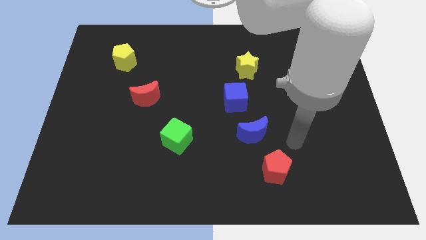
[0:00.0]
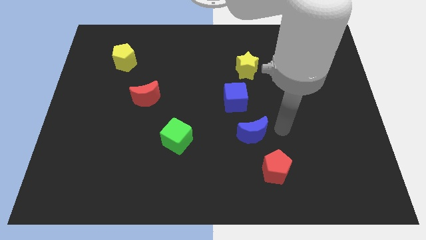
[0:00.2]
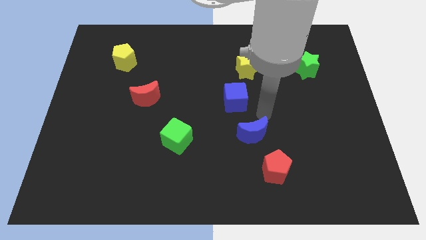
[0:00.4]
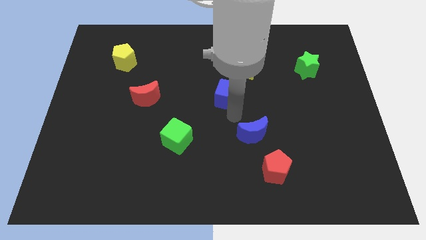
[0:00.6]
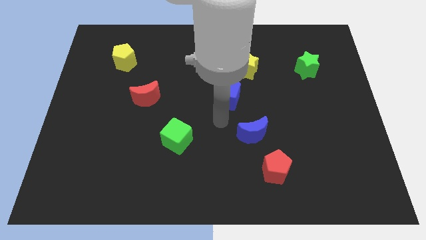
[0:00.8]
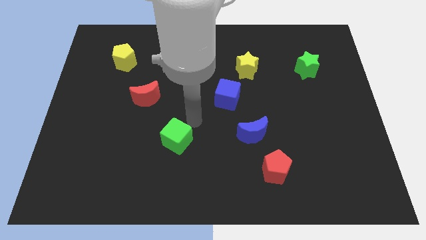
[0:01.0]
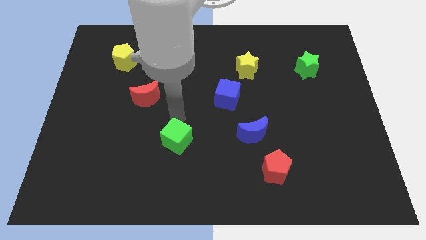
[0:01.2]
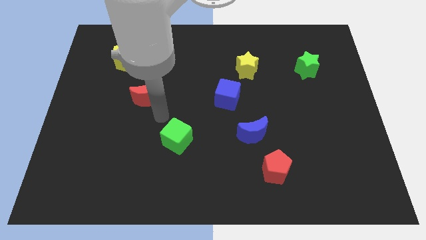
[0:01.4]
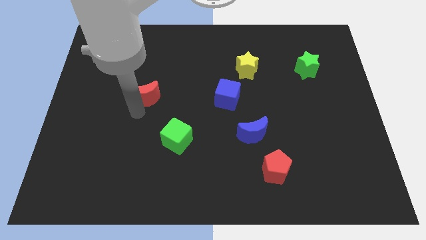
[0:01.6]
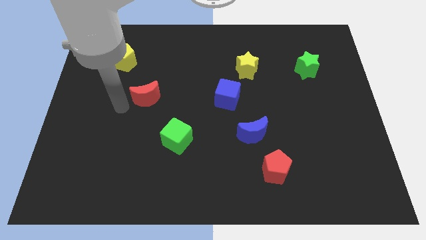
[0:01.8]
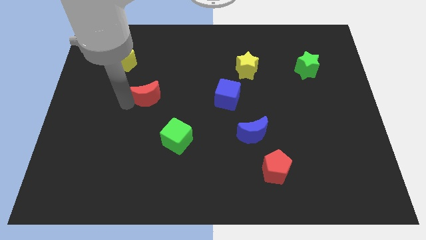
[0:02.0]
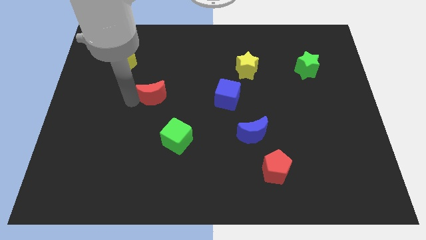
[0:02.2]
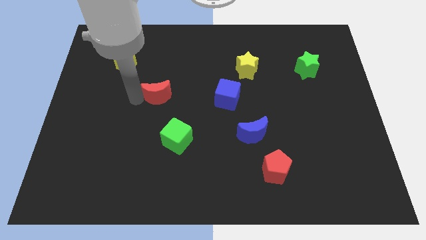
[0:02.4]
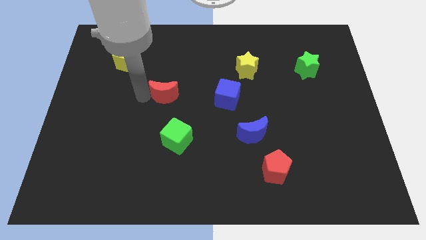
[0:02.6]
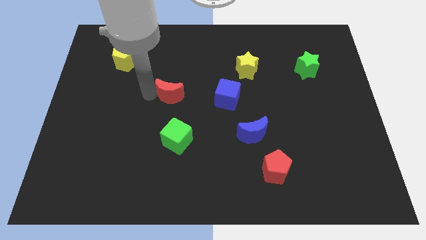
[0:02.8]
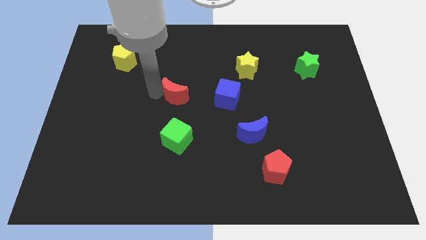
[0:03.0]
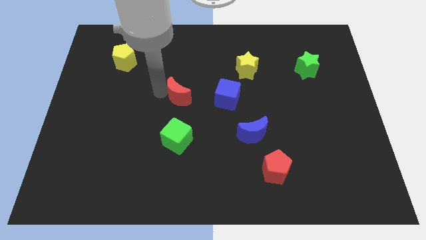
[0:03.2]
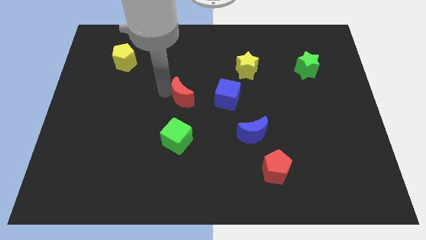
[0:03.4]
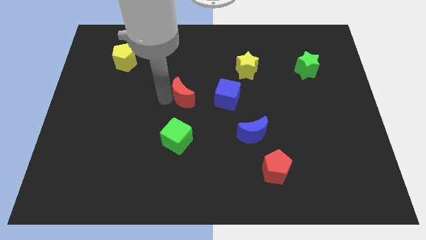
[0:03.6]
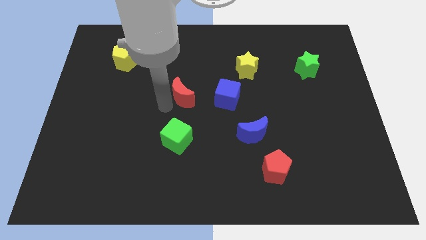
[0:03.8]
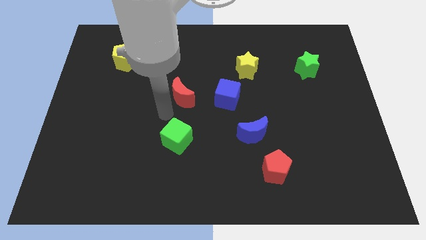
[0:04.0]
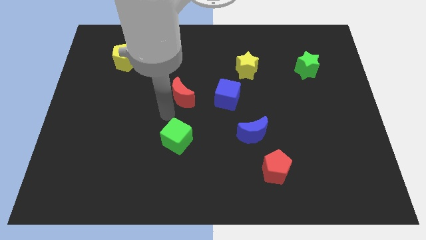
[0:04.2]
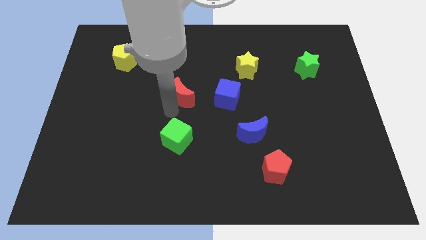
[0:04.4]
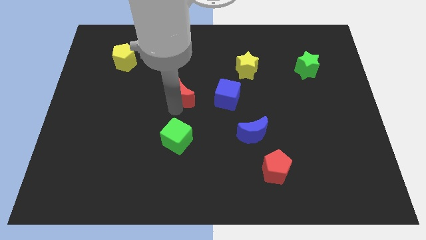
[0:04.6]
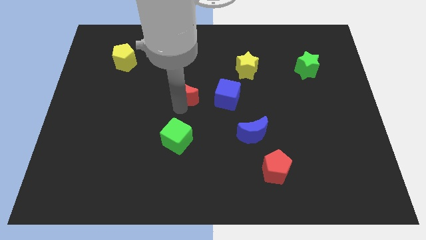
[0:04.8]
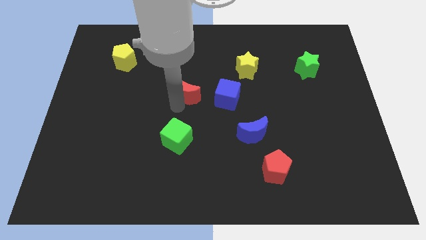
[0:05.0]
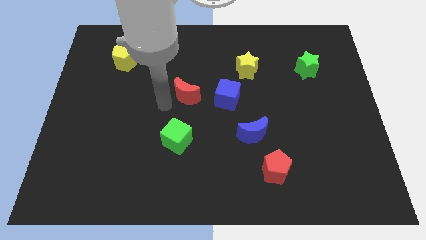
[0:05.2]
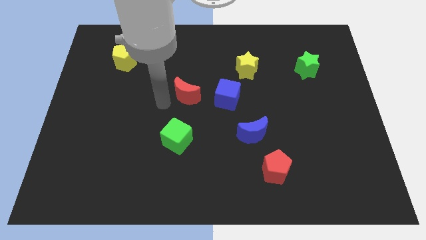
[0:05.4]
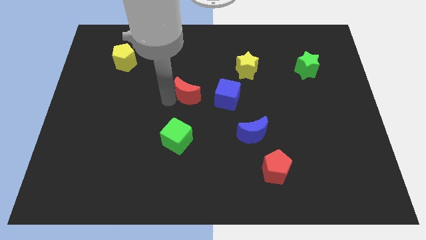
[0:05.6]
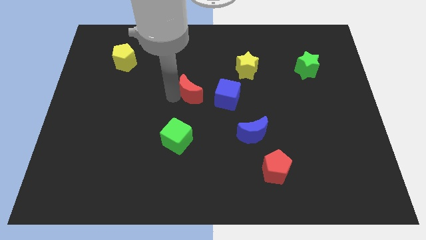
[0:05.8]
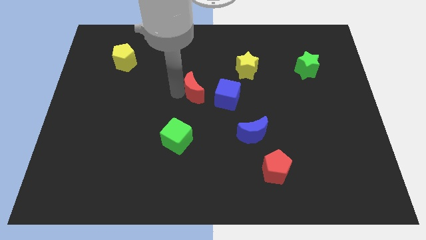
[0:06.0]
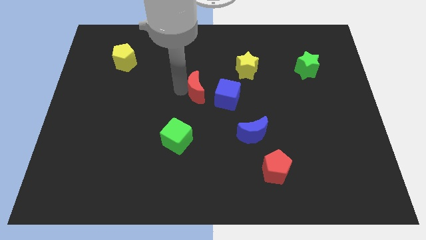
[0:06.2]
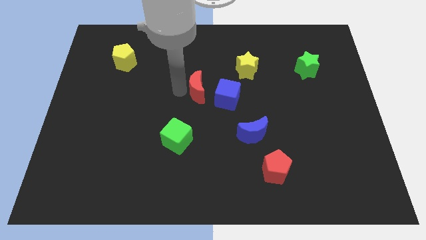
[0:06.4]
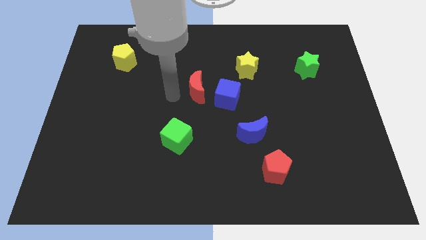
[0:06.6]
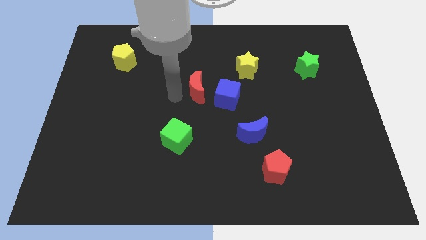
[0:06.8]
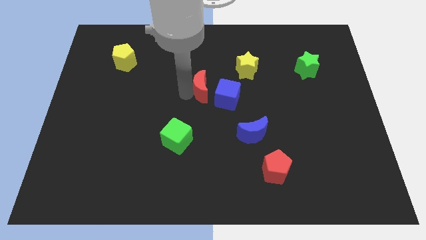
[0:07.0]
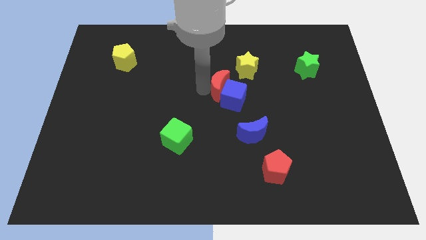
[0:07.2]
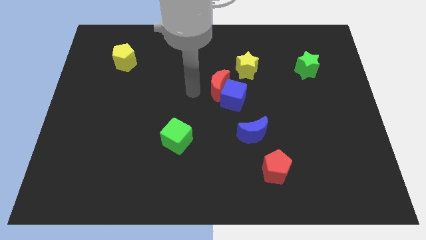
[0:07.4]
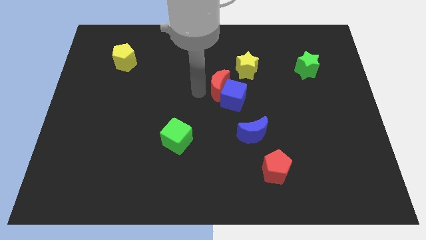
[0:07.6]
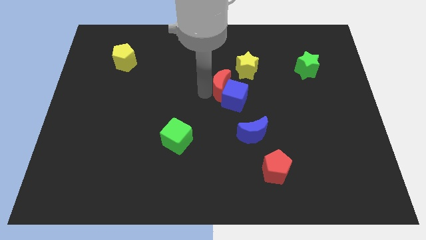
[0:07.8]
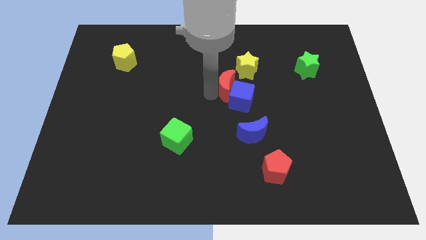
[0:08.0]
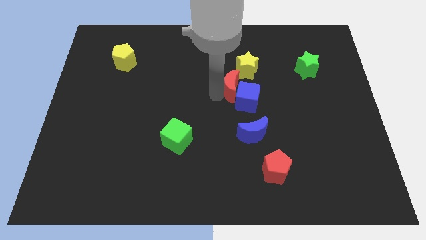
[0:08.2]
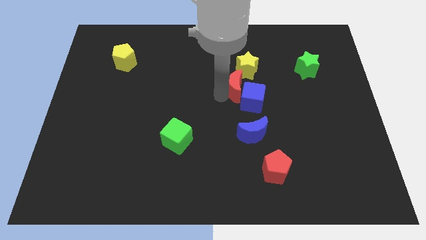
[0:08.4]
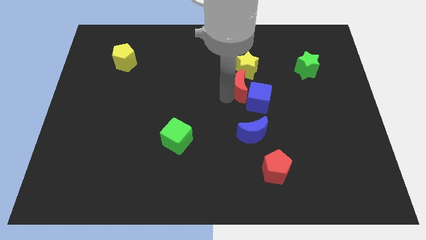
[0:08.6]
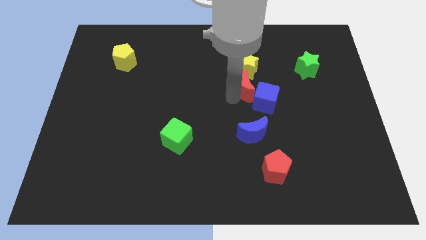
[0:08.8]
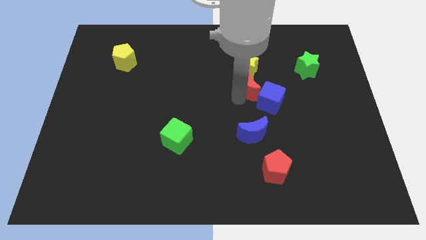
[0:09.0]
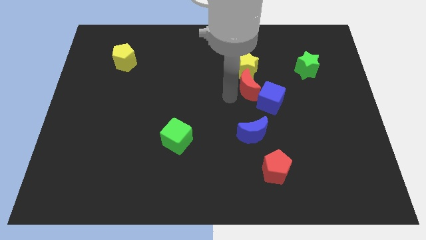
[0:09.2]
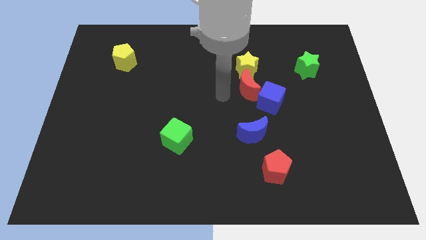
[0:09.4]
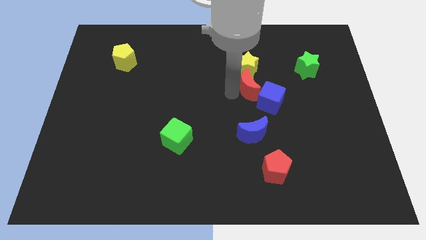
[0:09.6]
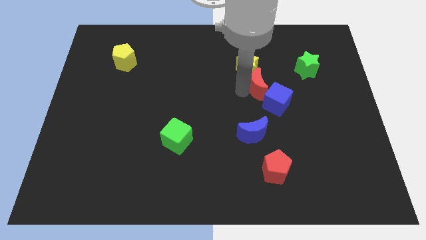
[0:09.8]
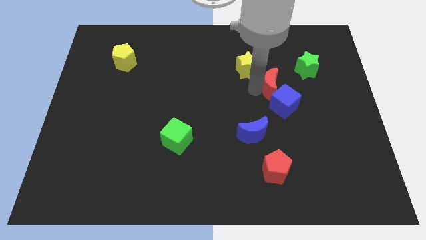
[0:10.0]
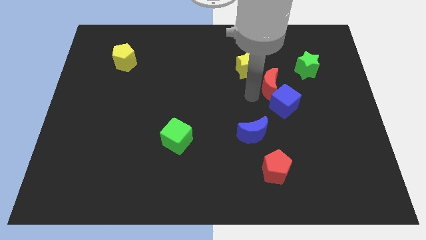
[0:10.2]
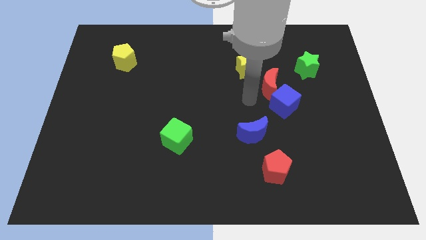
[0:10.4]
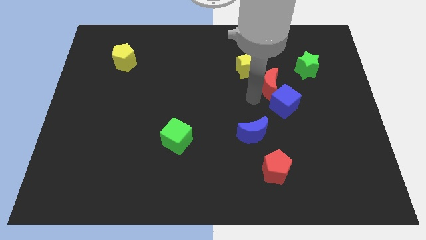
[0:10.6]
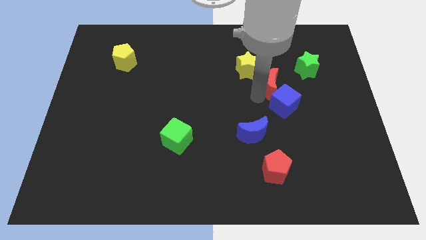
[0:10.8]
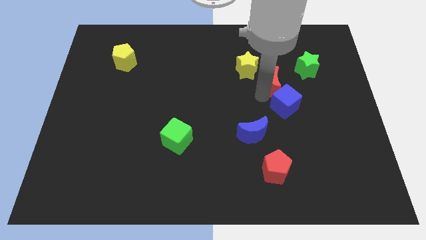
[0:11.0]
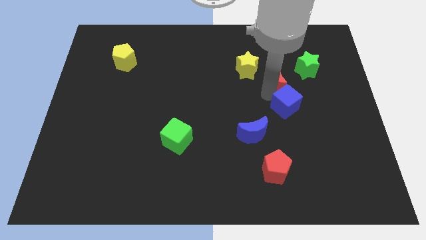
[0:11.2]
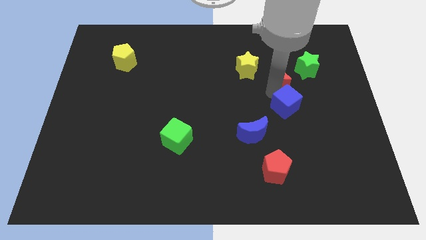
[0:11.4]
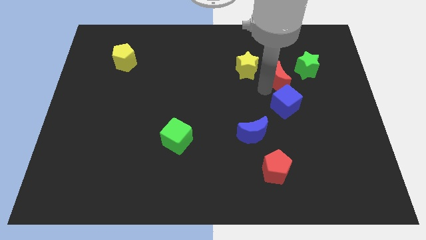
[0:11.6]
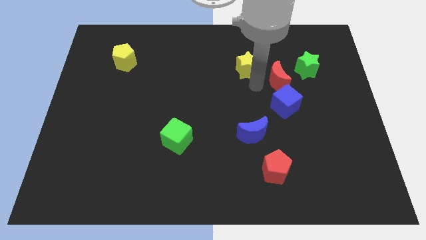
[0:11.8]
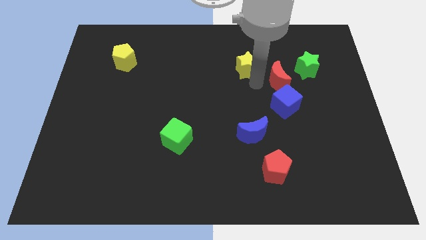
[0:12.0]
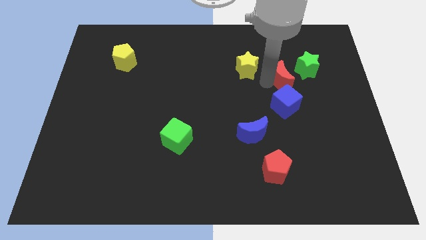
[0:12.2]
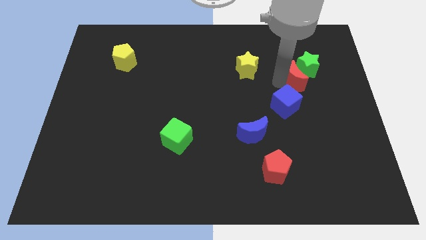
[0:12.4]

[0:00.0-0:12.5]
move the red moon close to the green star
